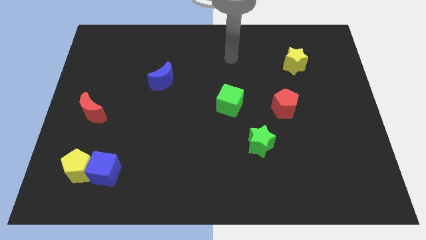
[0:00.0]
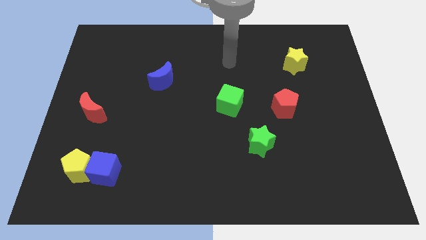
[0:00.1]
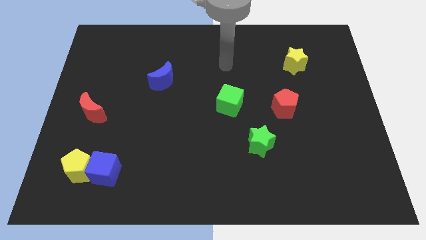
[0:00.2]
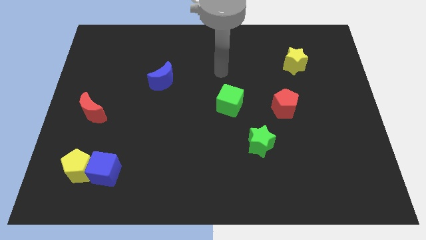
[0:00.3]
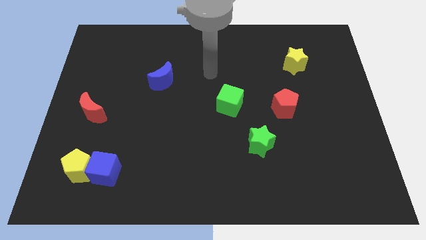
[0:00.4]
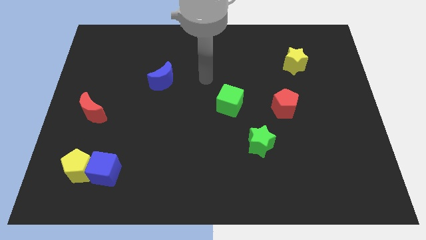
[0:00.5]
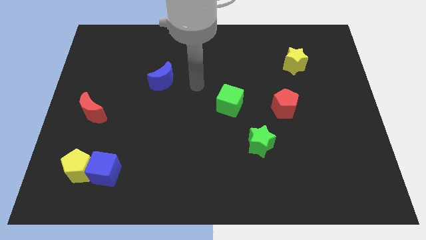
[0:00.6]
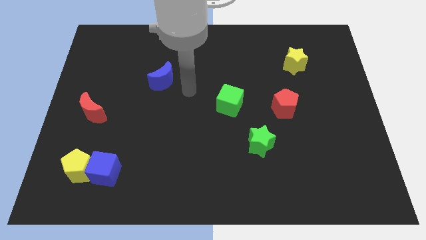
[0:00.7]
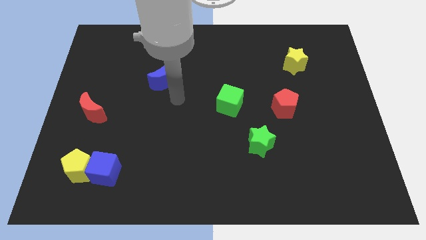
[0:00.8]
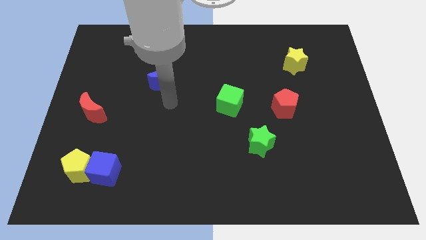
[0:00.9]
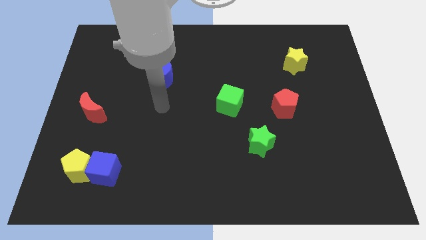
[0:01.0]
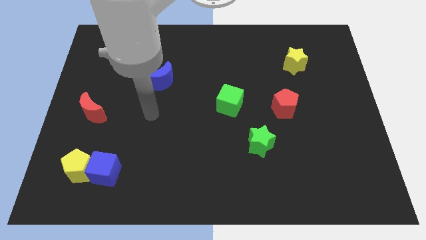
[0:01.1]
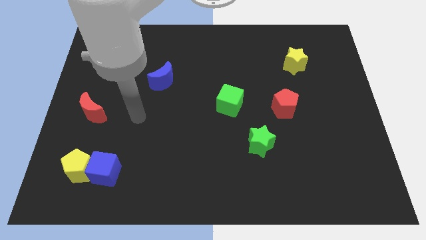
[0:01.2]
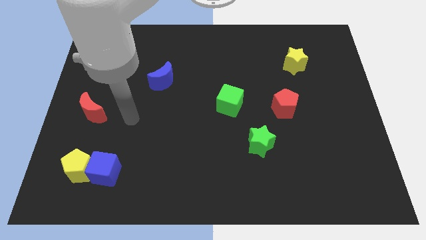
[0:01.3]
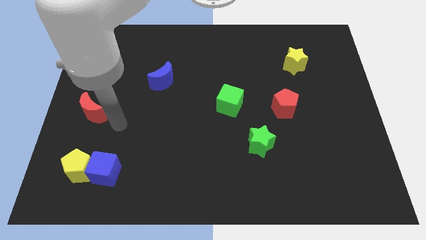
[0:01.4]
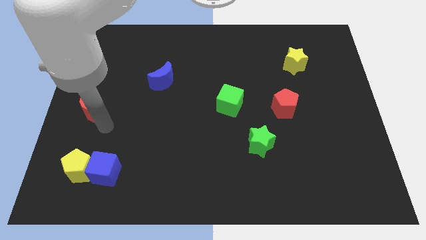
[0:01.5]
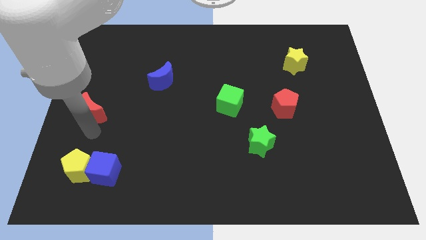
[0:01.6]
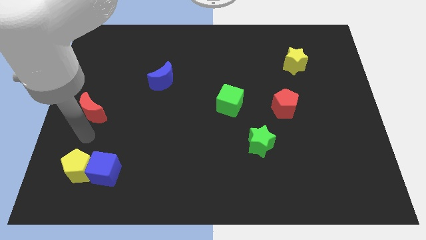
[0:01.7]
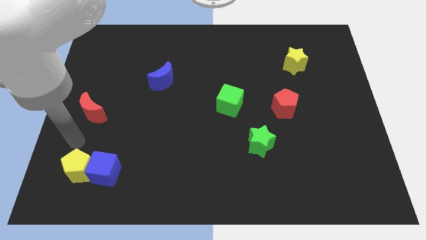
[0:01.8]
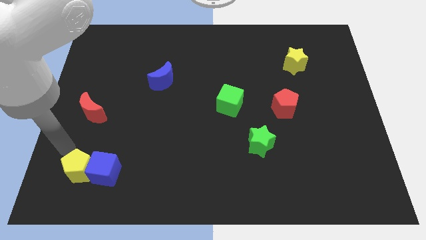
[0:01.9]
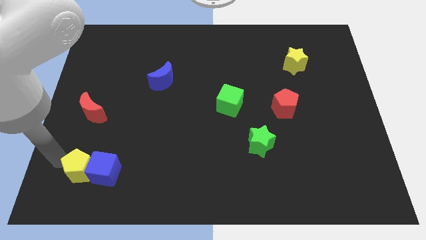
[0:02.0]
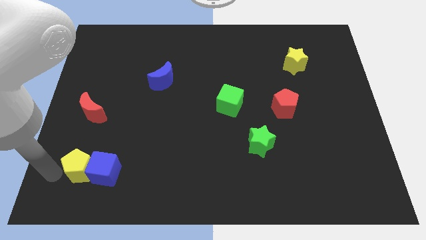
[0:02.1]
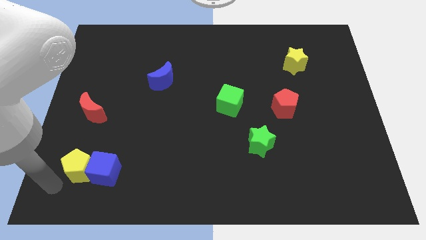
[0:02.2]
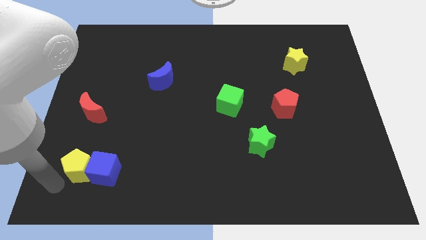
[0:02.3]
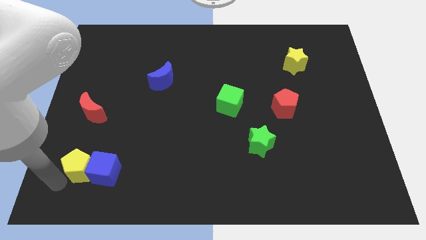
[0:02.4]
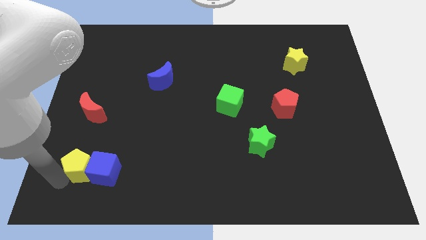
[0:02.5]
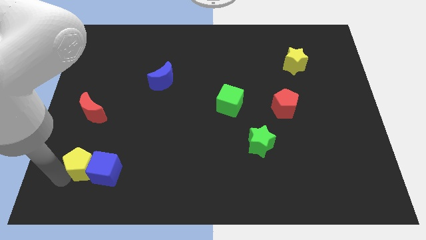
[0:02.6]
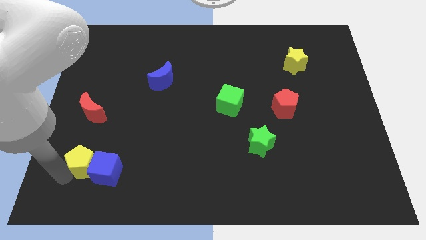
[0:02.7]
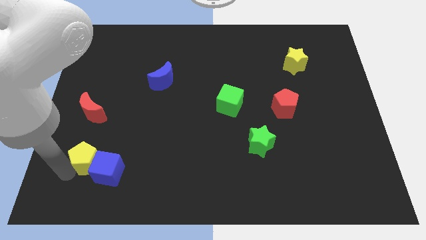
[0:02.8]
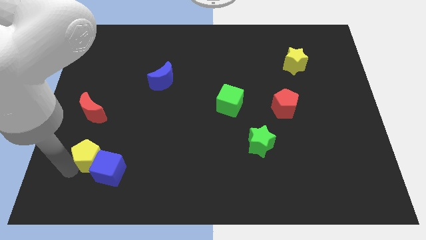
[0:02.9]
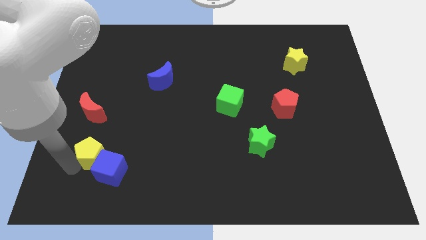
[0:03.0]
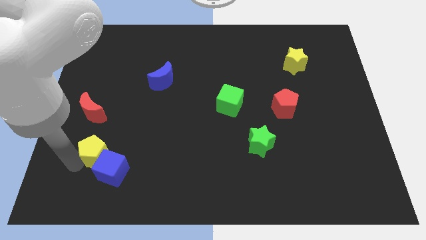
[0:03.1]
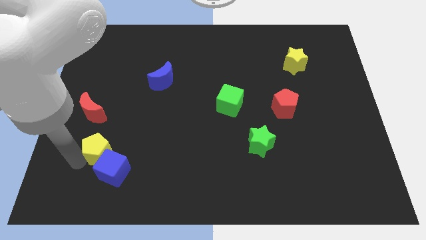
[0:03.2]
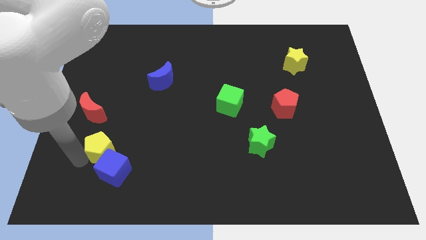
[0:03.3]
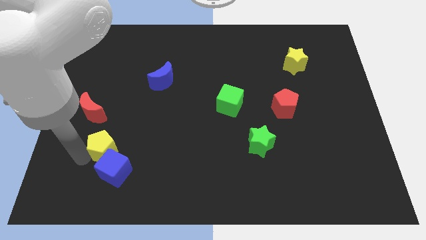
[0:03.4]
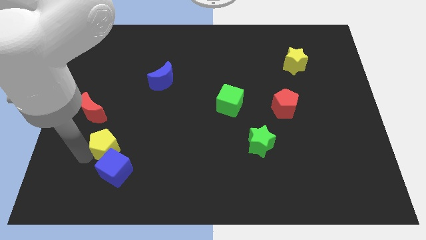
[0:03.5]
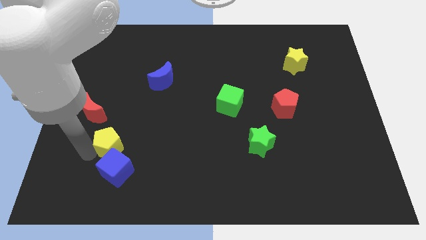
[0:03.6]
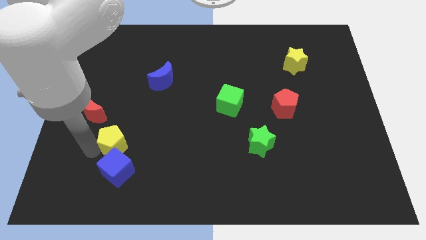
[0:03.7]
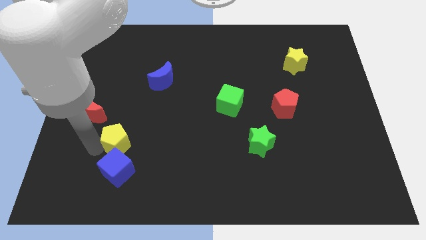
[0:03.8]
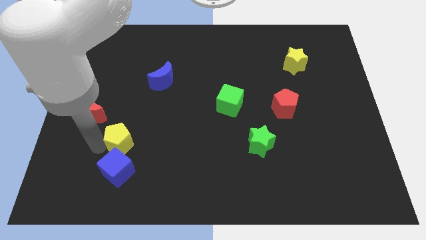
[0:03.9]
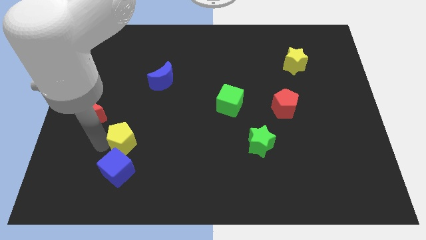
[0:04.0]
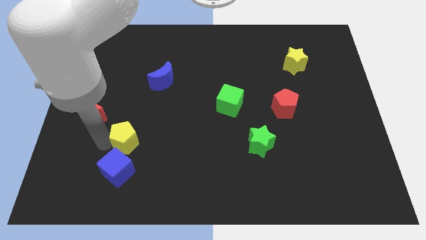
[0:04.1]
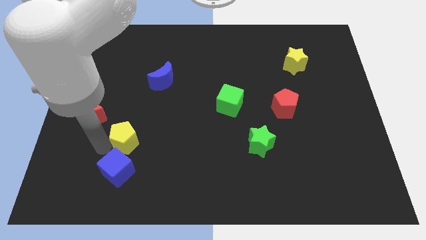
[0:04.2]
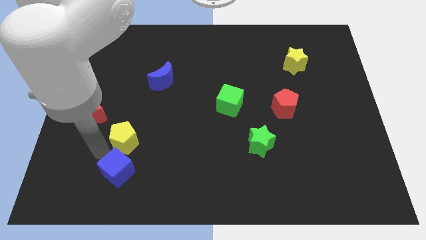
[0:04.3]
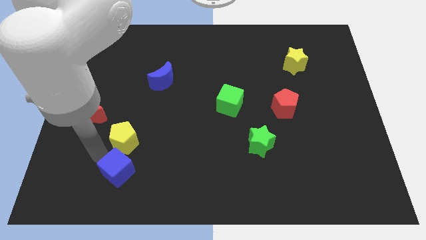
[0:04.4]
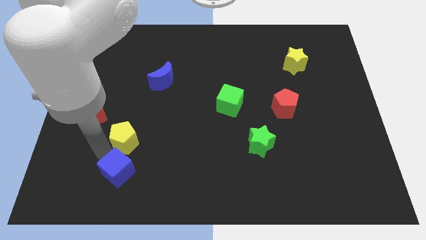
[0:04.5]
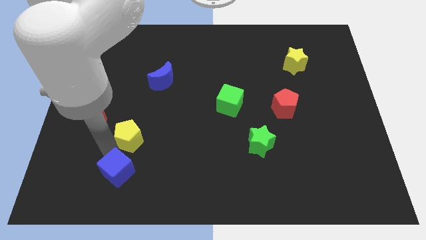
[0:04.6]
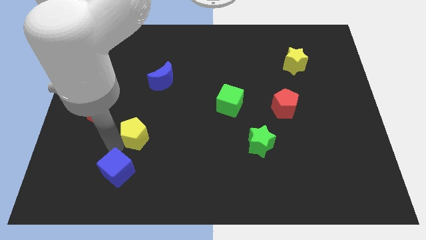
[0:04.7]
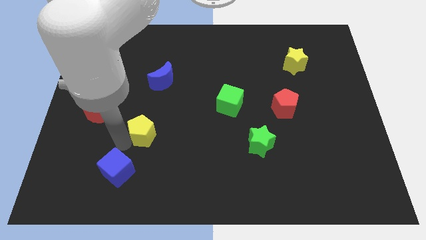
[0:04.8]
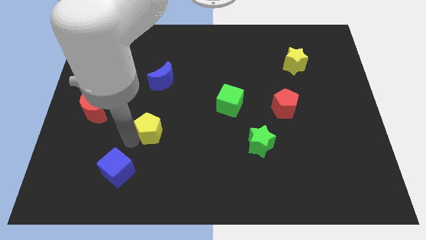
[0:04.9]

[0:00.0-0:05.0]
put the yellow pentagon to the bottom side of the blue moon

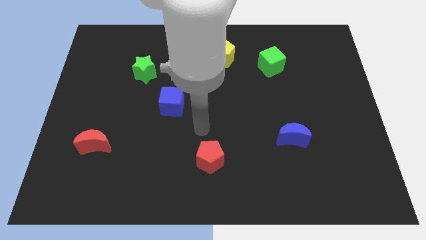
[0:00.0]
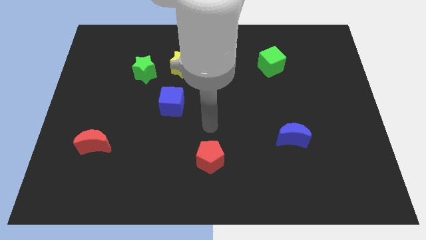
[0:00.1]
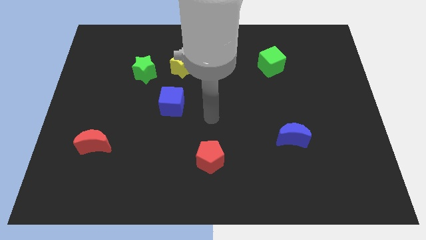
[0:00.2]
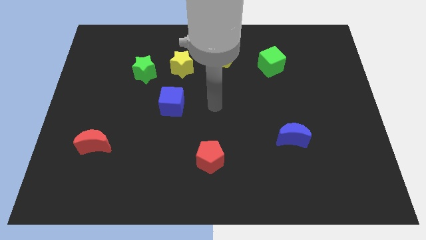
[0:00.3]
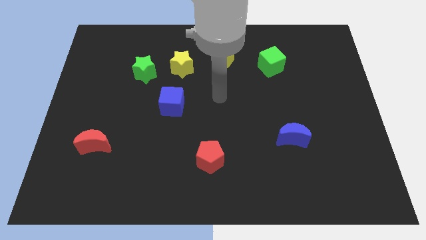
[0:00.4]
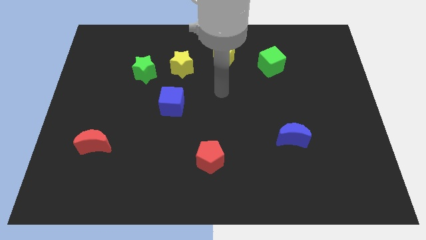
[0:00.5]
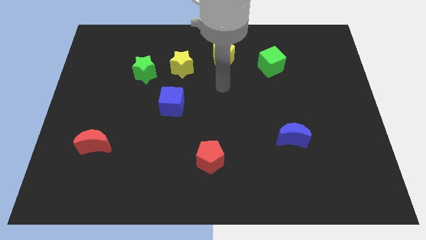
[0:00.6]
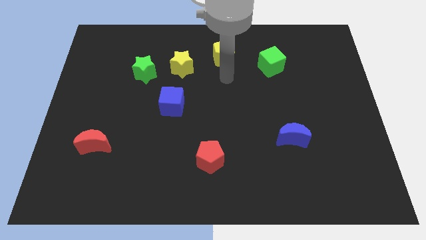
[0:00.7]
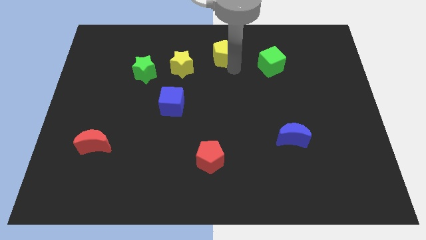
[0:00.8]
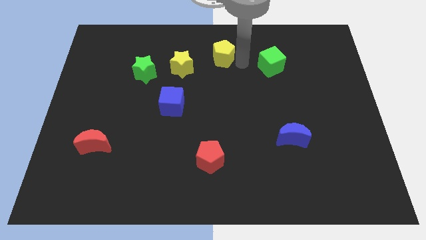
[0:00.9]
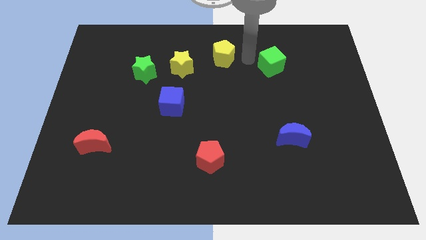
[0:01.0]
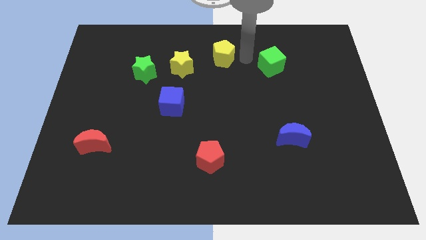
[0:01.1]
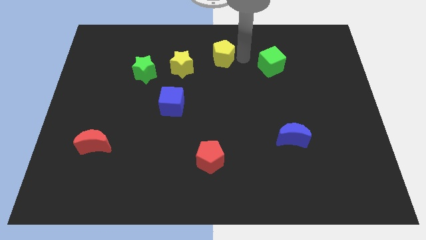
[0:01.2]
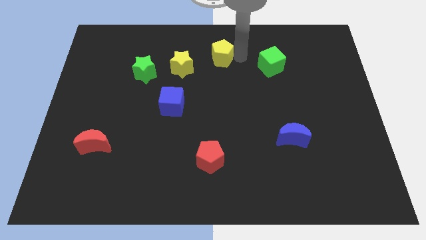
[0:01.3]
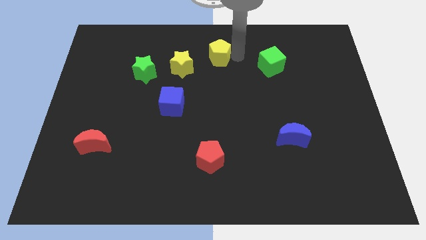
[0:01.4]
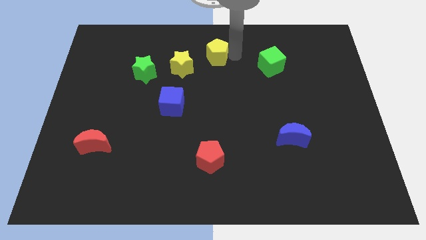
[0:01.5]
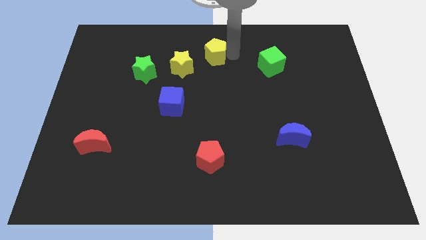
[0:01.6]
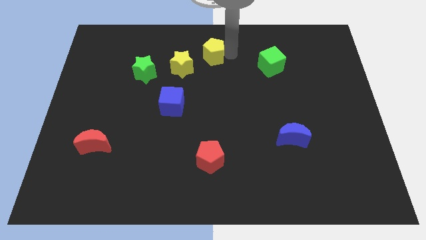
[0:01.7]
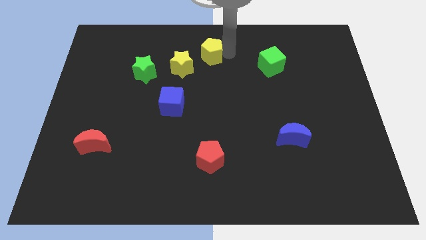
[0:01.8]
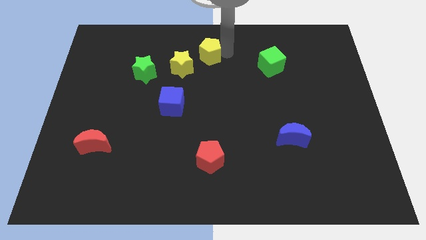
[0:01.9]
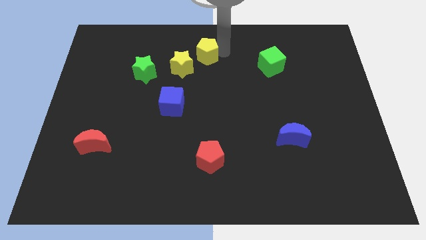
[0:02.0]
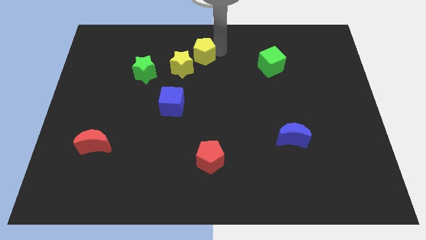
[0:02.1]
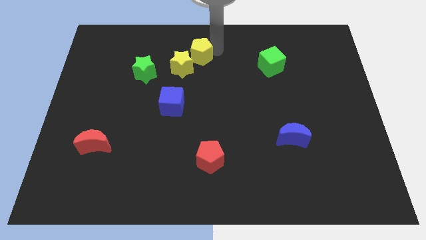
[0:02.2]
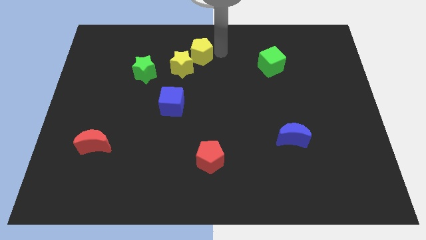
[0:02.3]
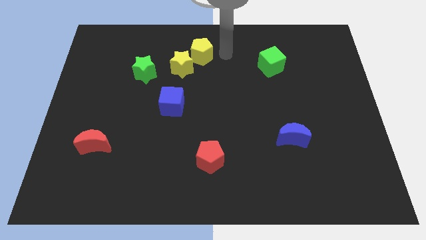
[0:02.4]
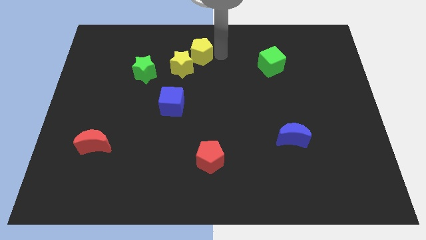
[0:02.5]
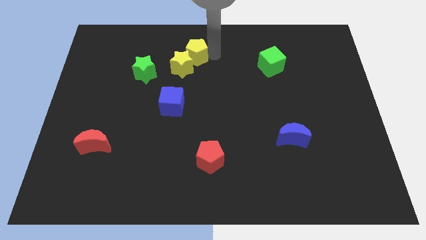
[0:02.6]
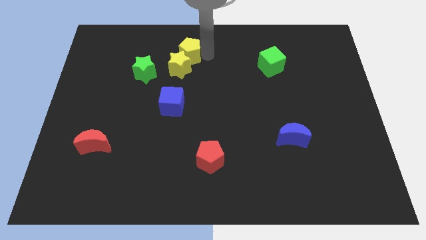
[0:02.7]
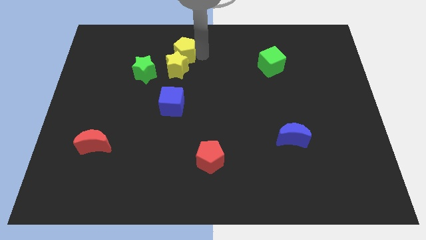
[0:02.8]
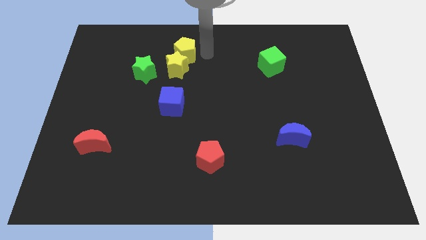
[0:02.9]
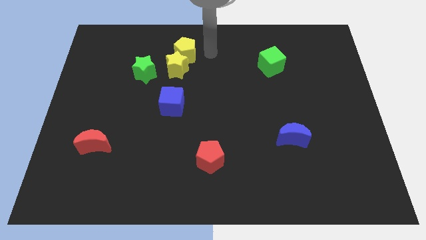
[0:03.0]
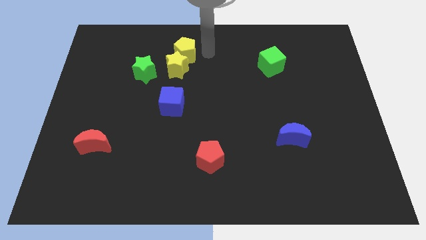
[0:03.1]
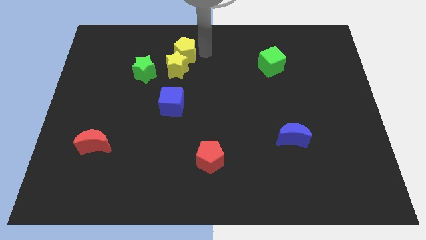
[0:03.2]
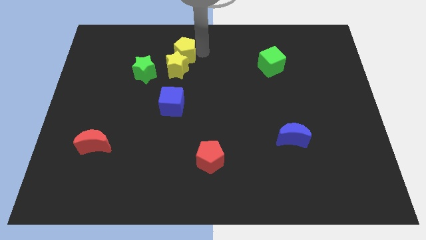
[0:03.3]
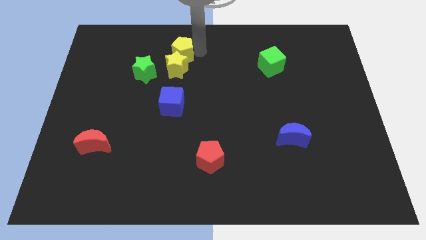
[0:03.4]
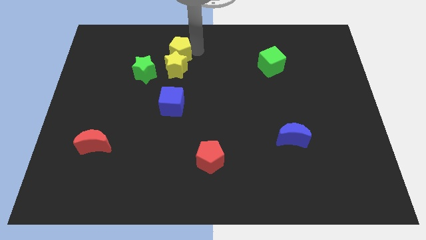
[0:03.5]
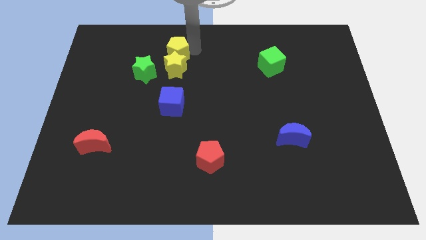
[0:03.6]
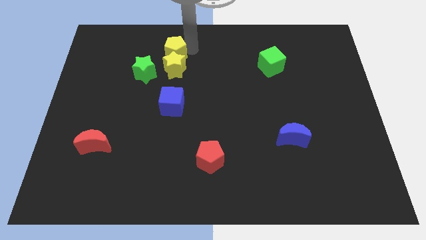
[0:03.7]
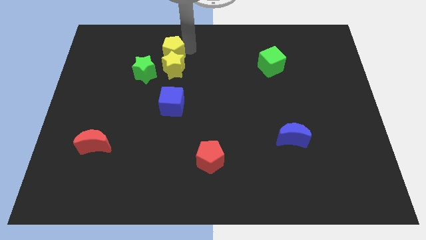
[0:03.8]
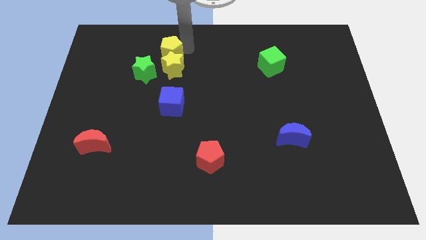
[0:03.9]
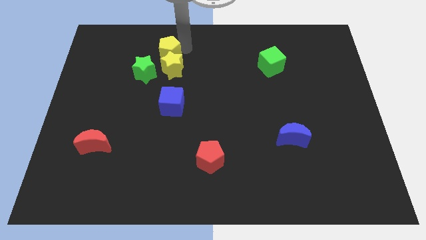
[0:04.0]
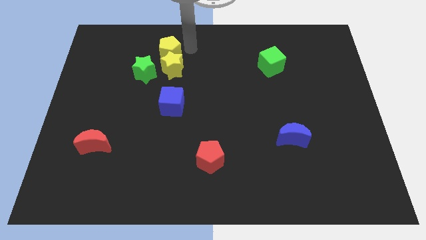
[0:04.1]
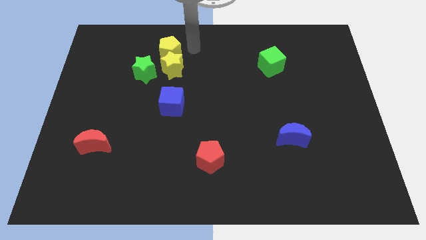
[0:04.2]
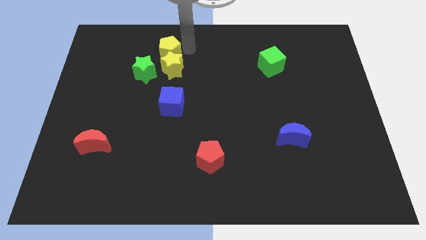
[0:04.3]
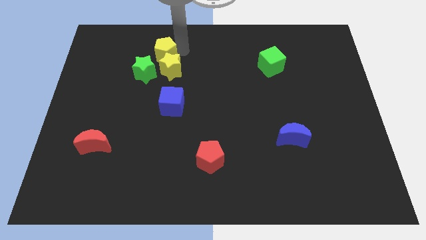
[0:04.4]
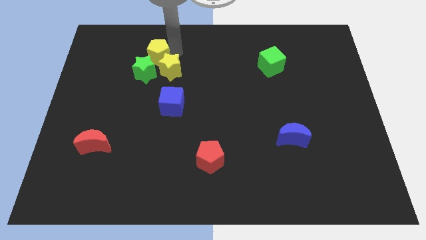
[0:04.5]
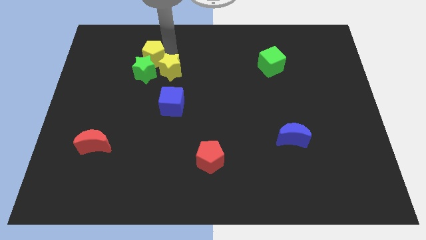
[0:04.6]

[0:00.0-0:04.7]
push the yellow pentagon to the left of the yellow star
